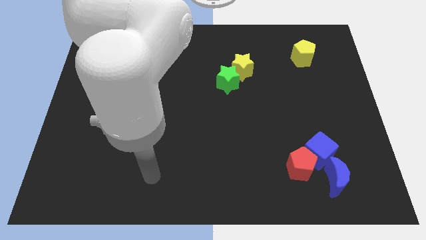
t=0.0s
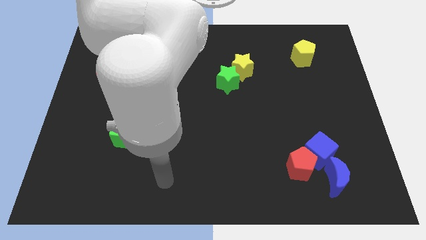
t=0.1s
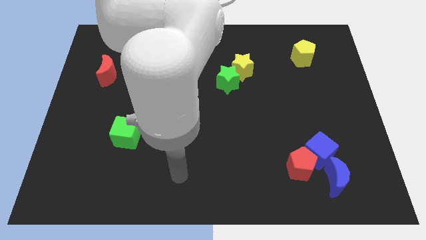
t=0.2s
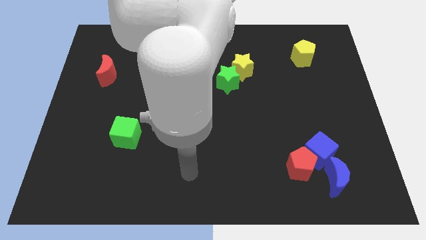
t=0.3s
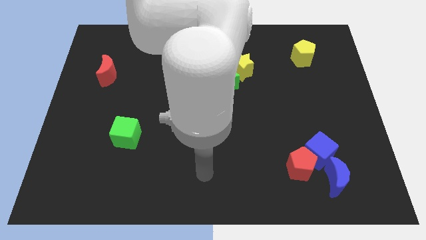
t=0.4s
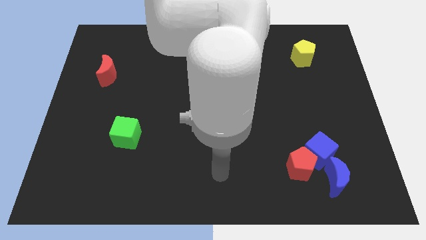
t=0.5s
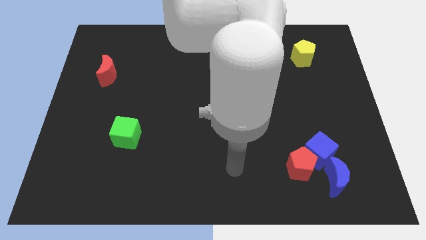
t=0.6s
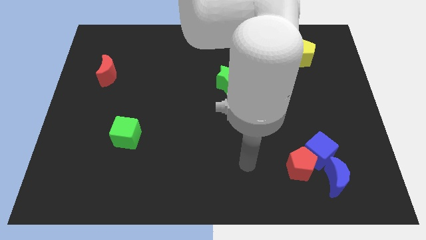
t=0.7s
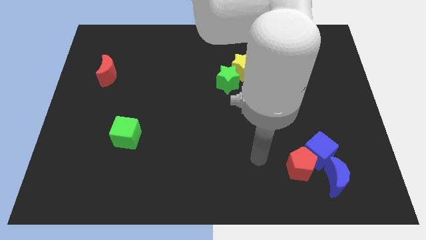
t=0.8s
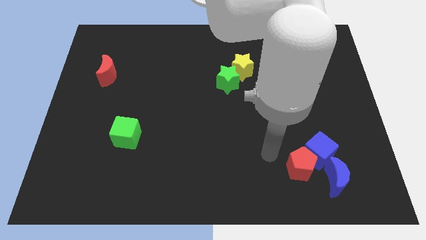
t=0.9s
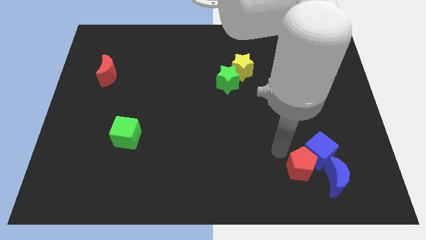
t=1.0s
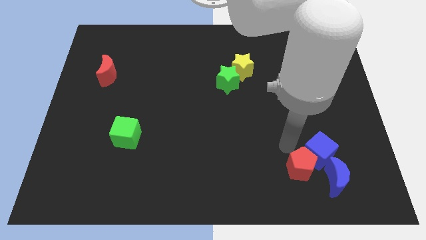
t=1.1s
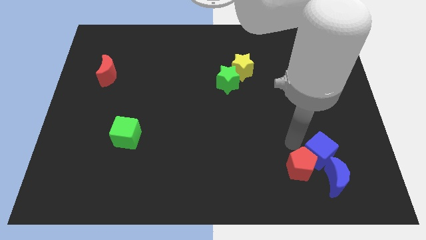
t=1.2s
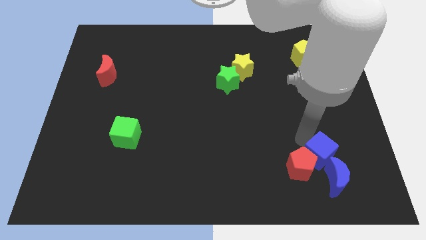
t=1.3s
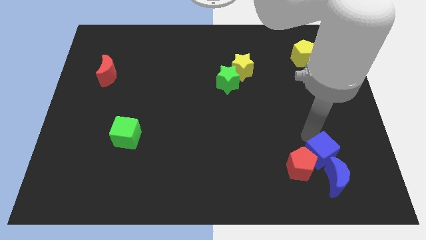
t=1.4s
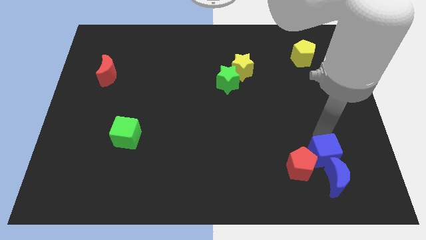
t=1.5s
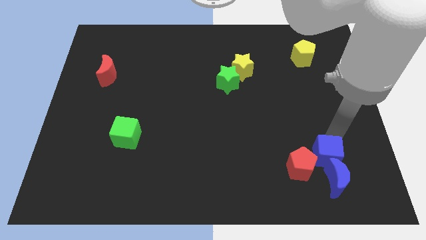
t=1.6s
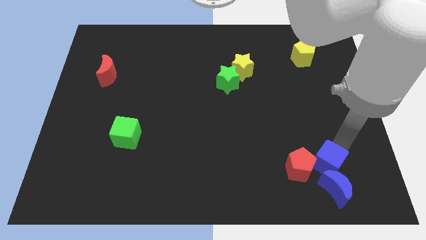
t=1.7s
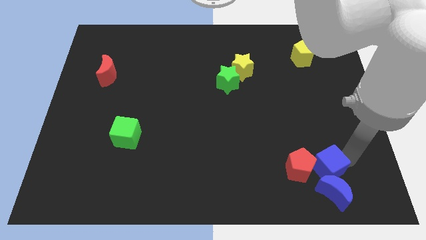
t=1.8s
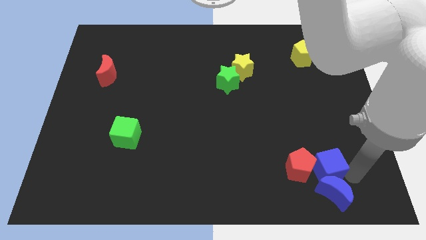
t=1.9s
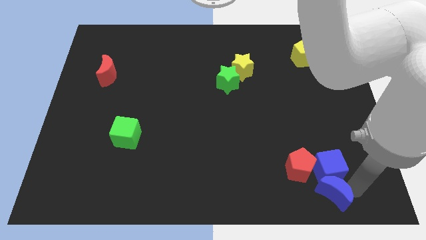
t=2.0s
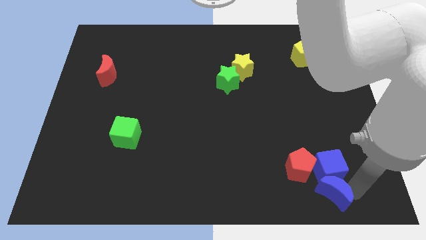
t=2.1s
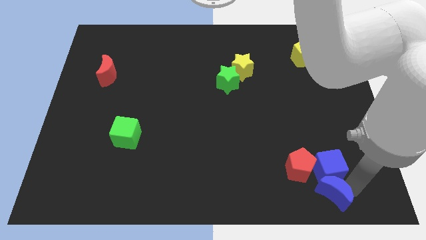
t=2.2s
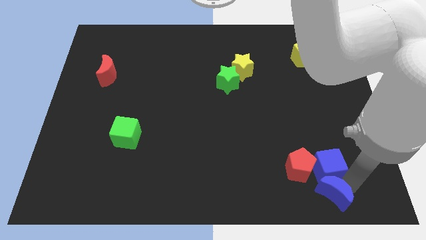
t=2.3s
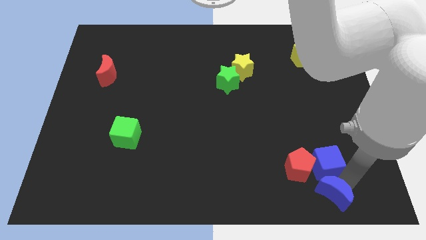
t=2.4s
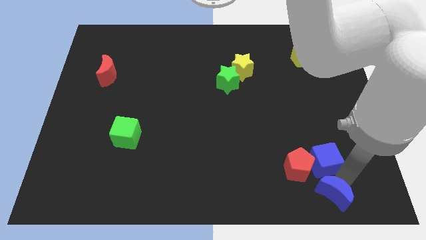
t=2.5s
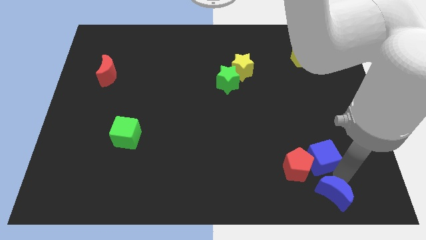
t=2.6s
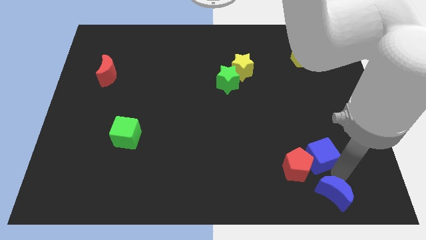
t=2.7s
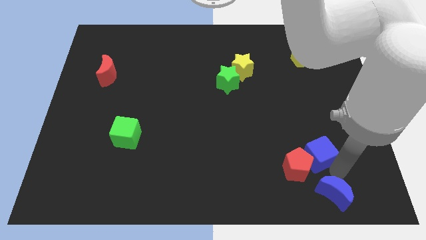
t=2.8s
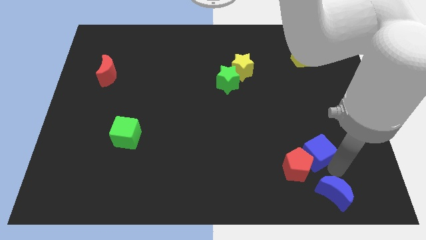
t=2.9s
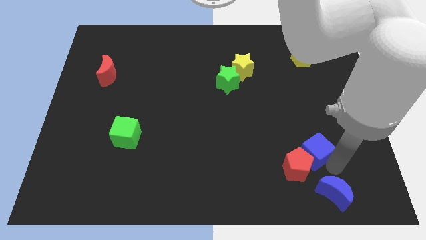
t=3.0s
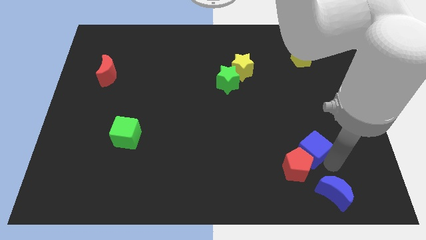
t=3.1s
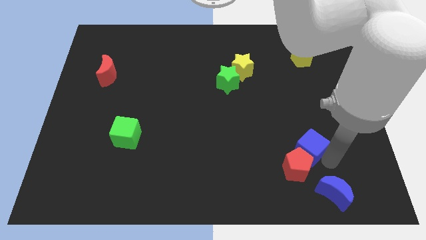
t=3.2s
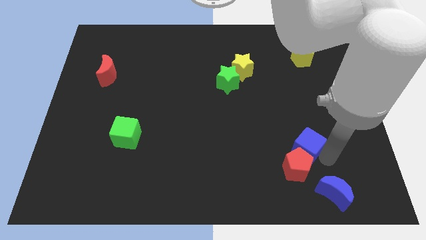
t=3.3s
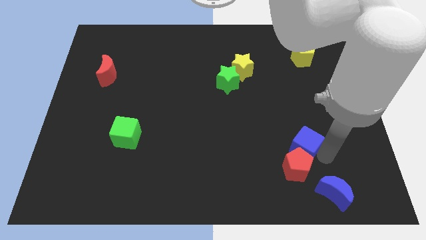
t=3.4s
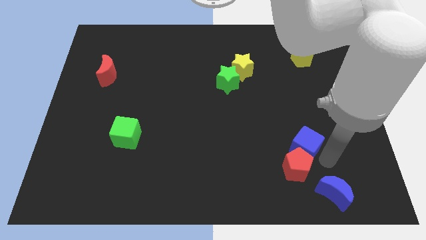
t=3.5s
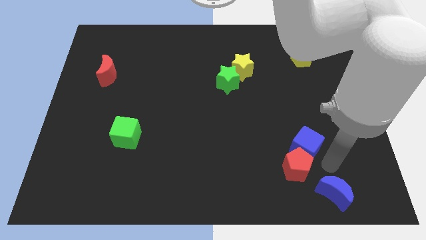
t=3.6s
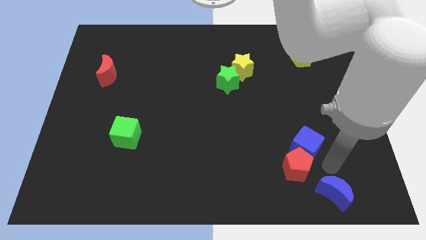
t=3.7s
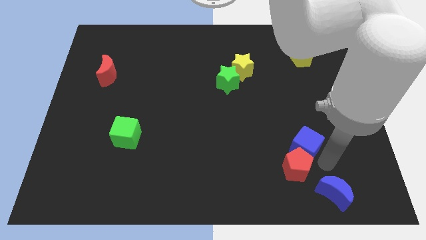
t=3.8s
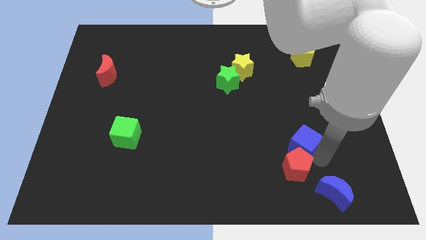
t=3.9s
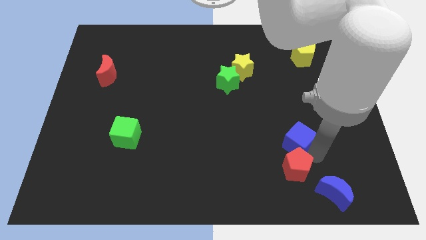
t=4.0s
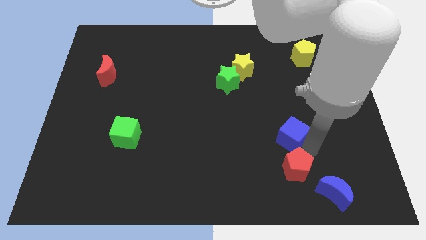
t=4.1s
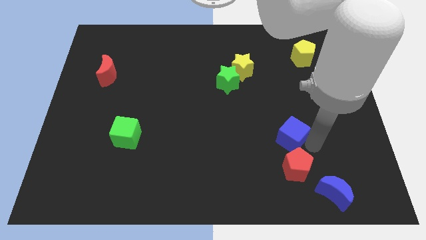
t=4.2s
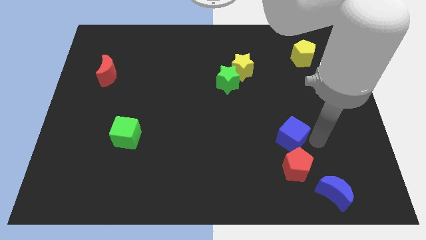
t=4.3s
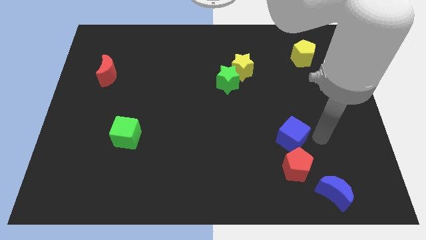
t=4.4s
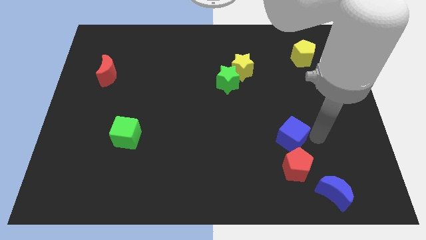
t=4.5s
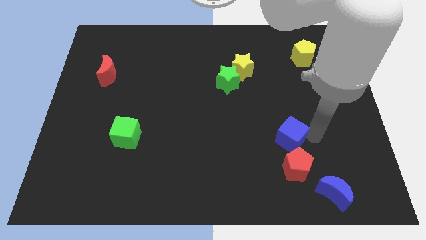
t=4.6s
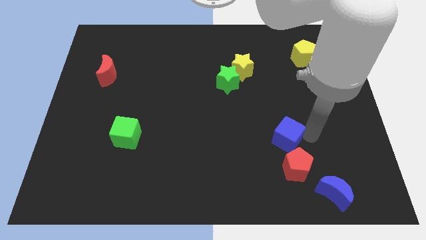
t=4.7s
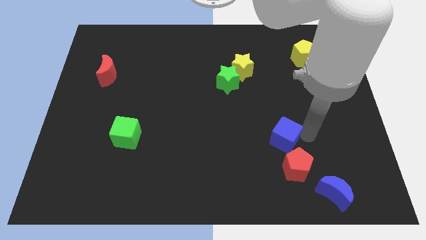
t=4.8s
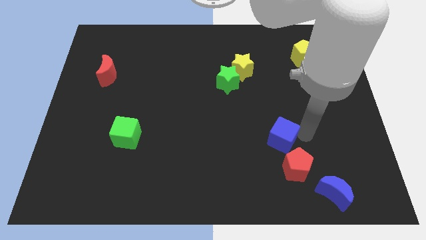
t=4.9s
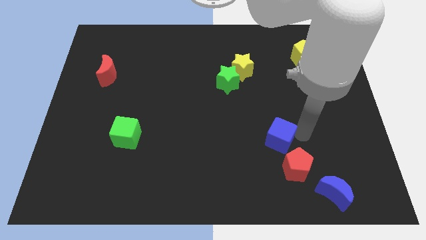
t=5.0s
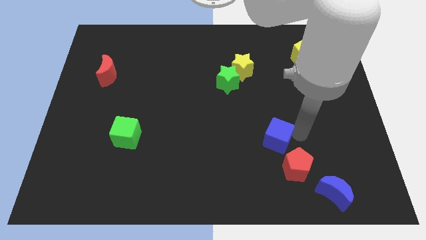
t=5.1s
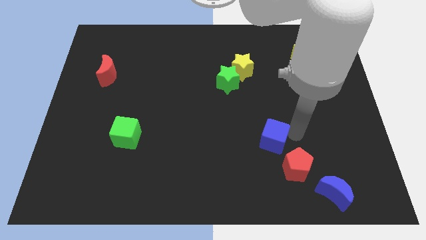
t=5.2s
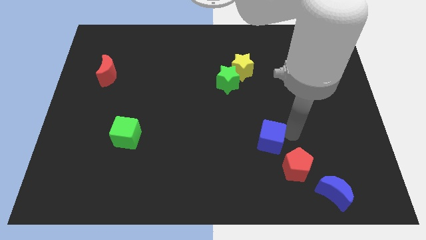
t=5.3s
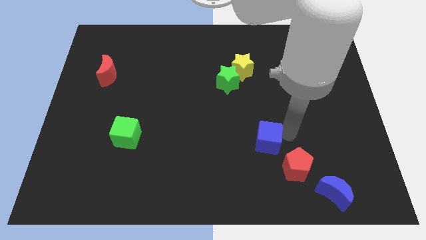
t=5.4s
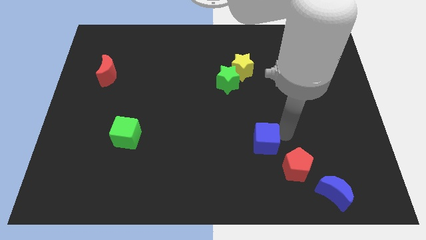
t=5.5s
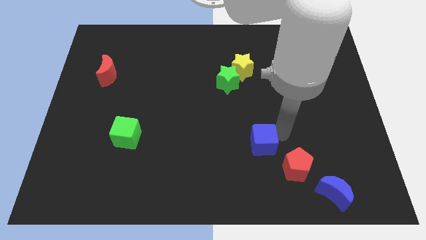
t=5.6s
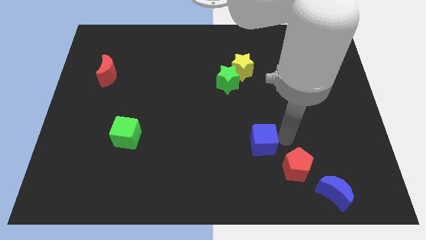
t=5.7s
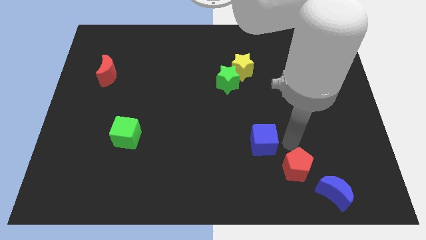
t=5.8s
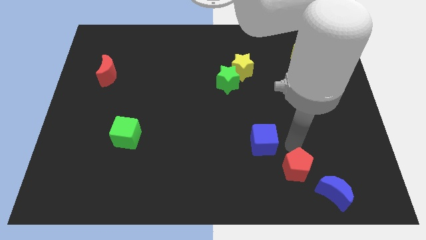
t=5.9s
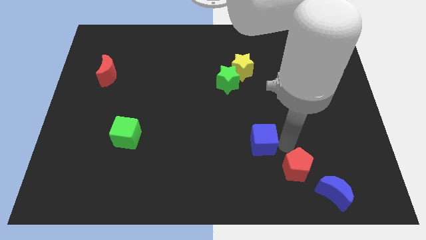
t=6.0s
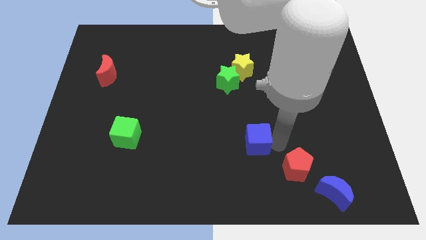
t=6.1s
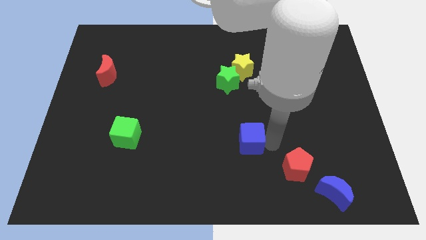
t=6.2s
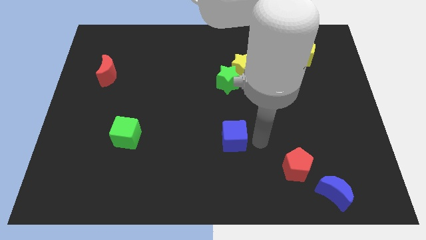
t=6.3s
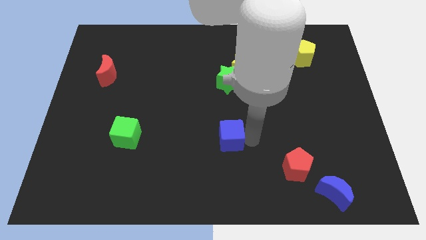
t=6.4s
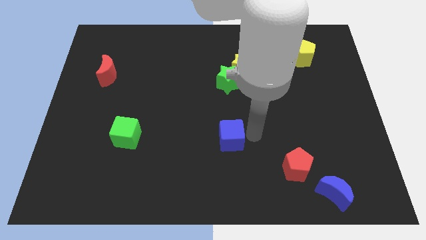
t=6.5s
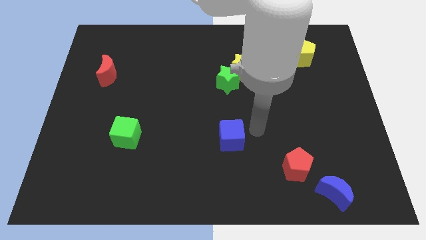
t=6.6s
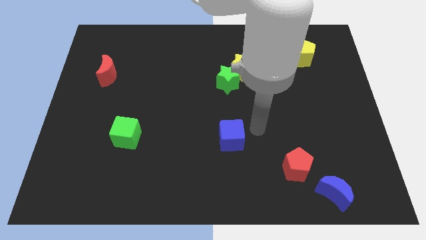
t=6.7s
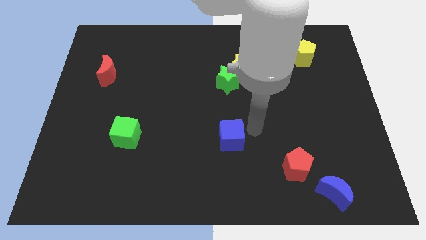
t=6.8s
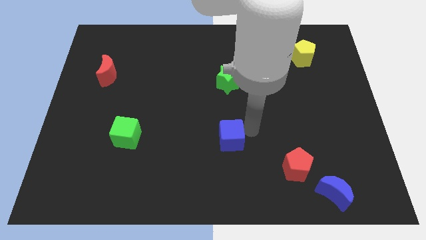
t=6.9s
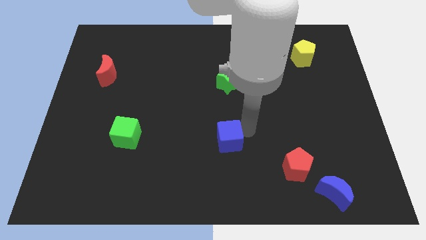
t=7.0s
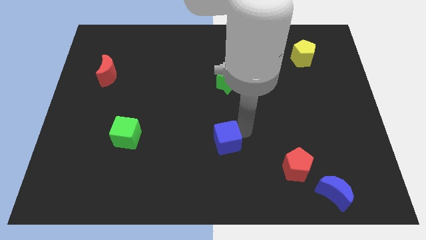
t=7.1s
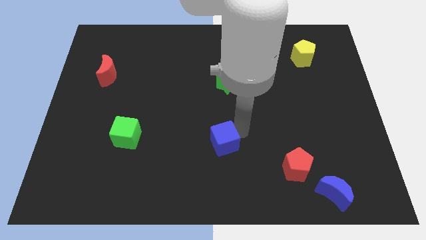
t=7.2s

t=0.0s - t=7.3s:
move the blue cube to the left

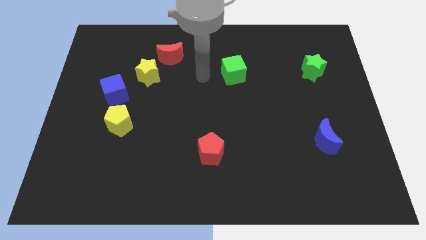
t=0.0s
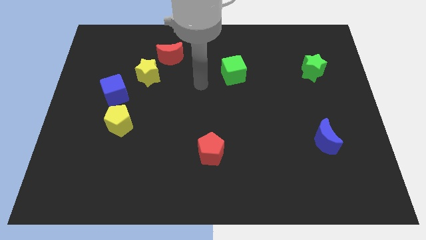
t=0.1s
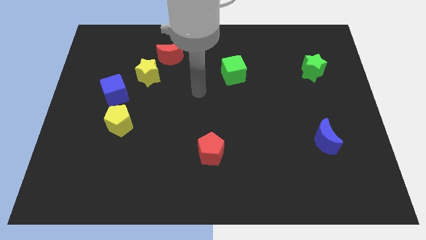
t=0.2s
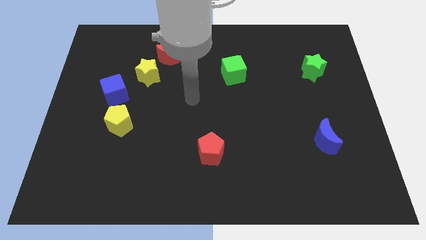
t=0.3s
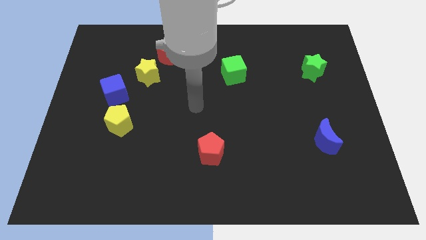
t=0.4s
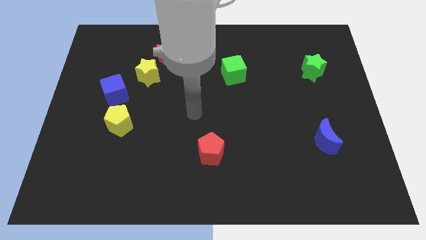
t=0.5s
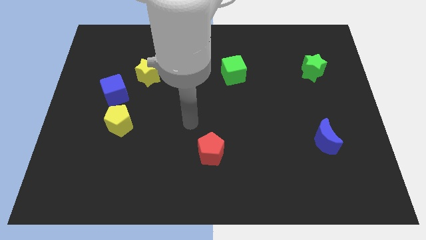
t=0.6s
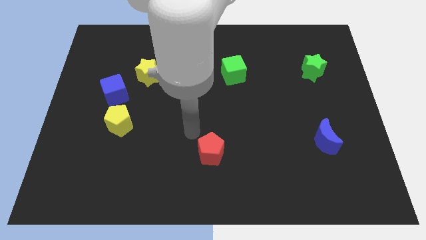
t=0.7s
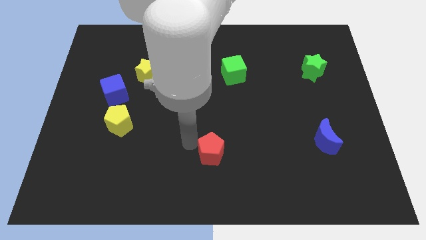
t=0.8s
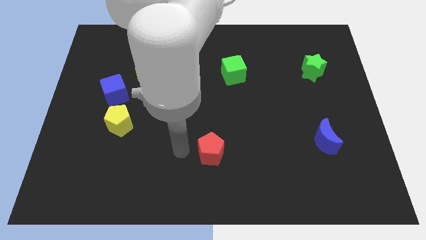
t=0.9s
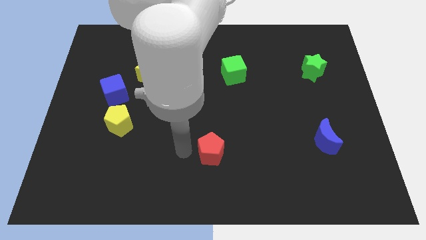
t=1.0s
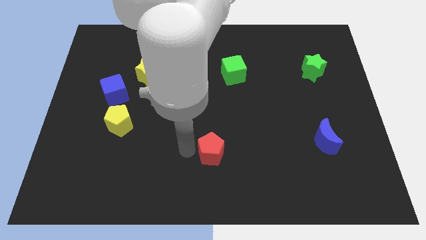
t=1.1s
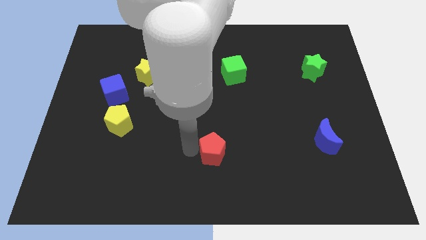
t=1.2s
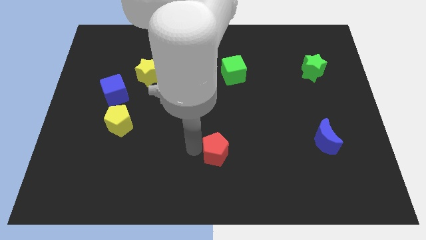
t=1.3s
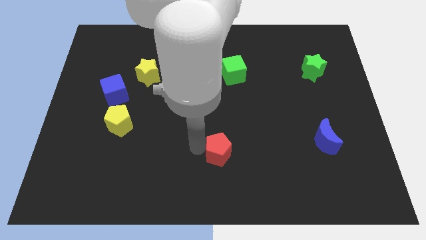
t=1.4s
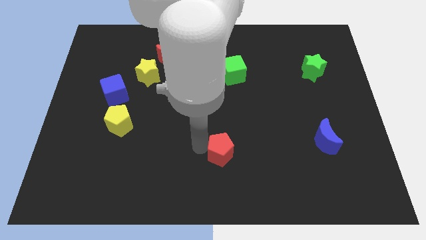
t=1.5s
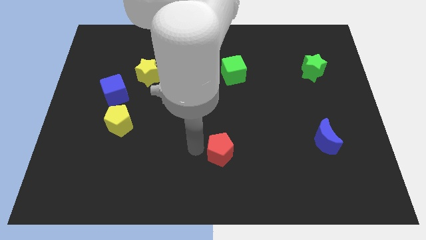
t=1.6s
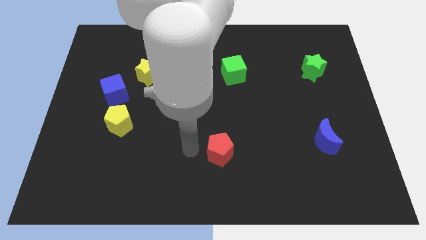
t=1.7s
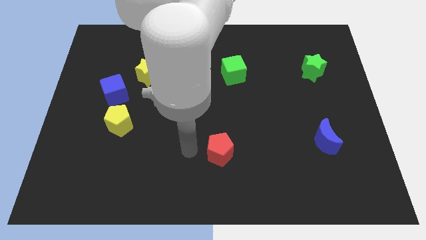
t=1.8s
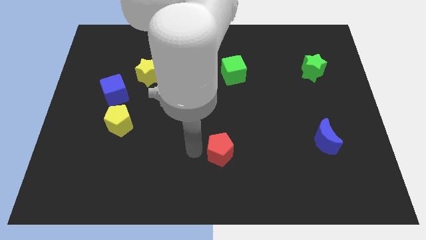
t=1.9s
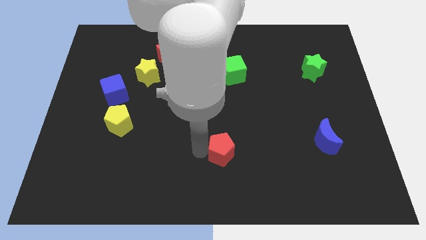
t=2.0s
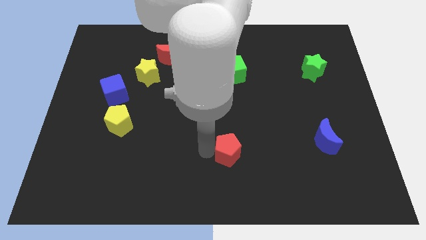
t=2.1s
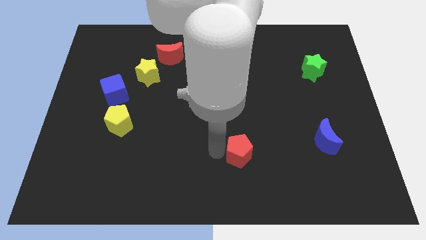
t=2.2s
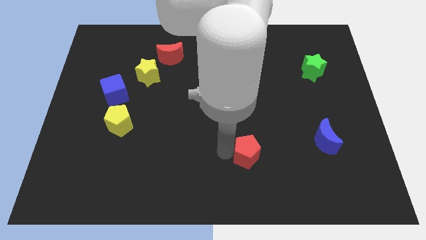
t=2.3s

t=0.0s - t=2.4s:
move the red pentagon slightly right
